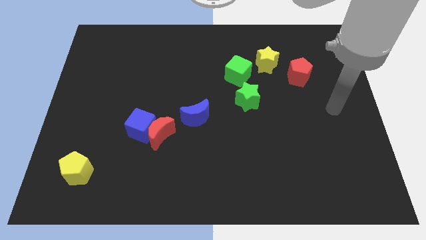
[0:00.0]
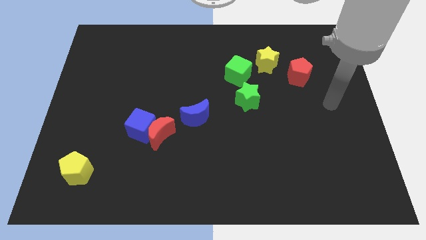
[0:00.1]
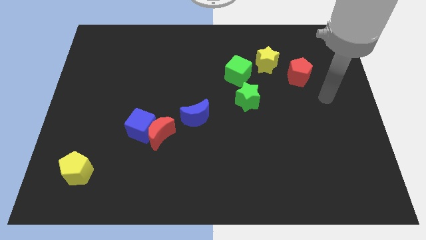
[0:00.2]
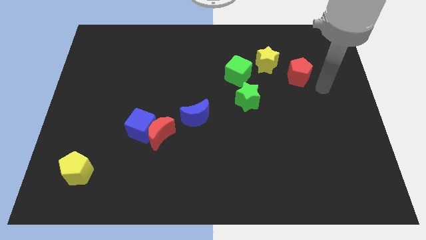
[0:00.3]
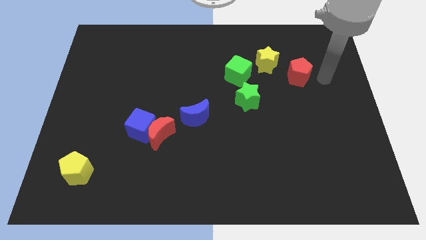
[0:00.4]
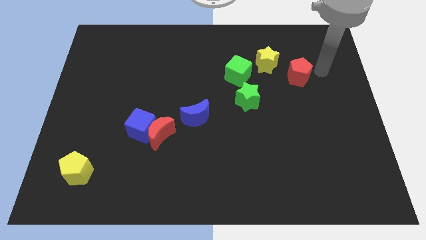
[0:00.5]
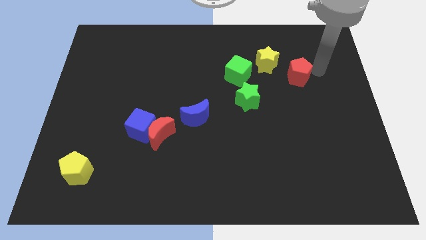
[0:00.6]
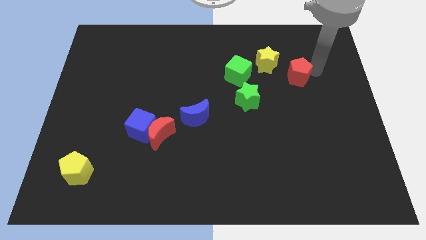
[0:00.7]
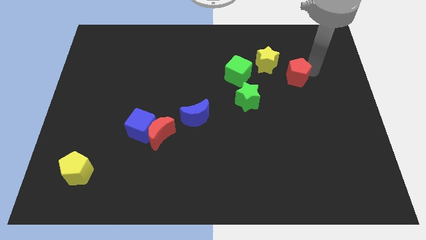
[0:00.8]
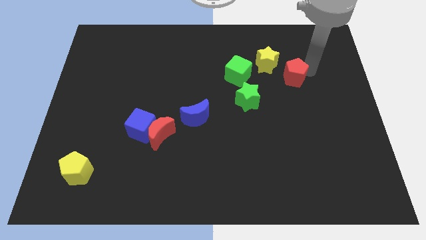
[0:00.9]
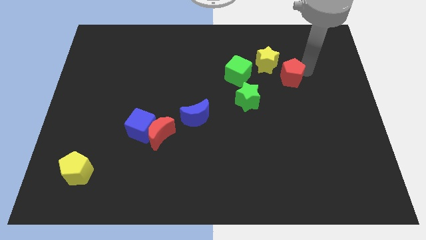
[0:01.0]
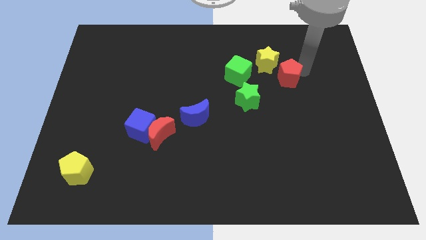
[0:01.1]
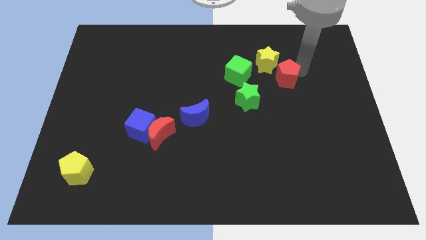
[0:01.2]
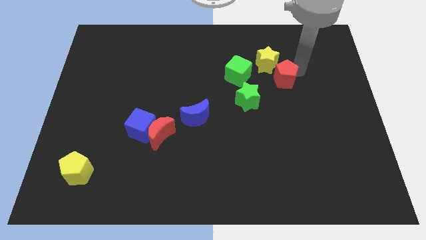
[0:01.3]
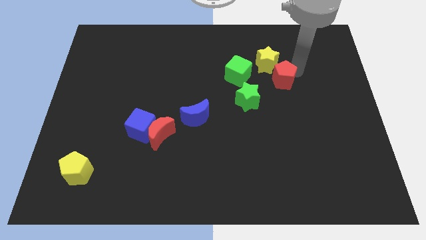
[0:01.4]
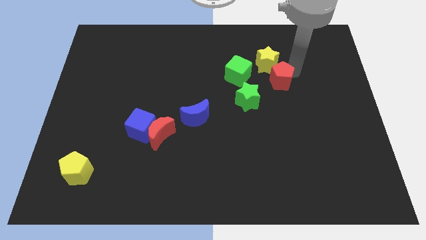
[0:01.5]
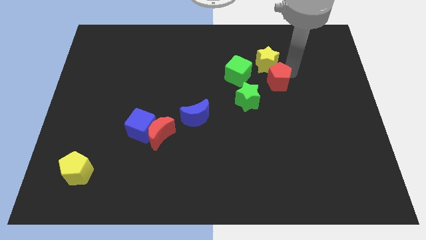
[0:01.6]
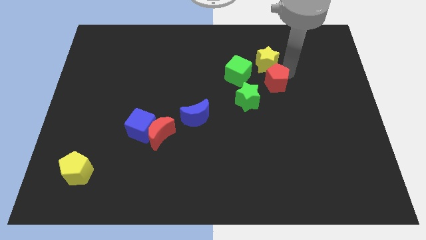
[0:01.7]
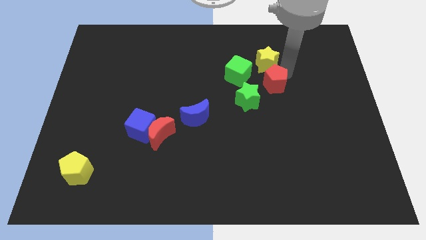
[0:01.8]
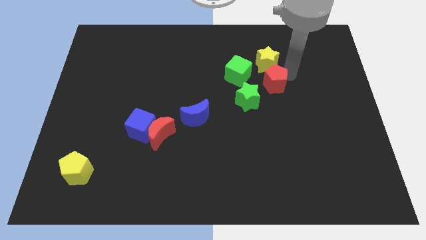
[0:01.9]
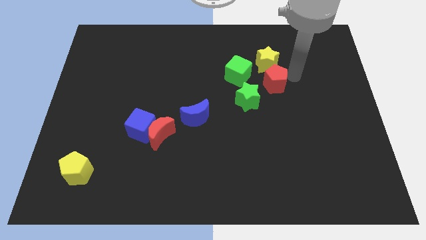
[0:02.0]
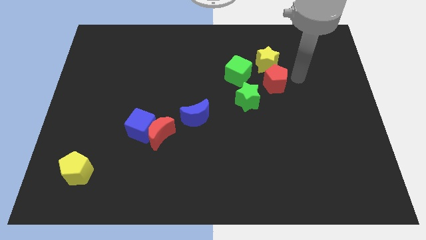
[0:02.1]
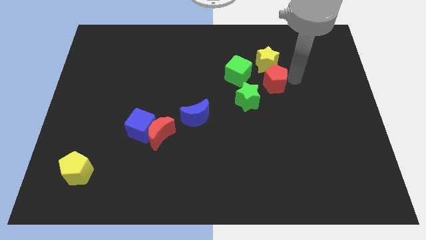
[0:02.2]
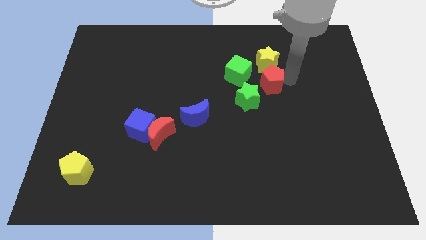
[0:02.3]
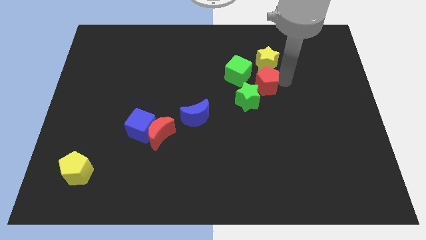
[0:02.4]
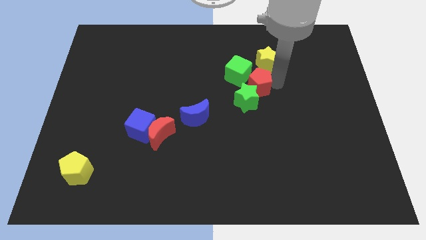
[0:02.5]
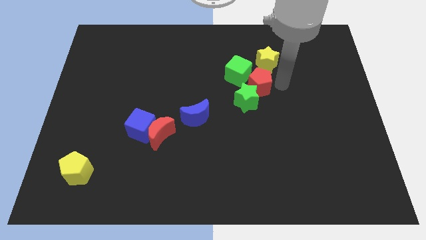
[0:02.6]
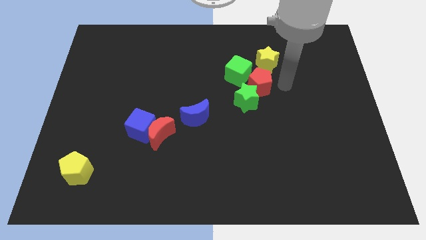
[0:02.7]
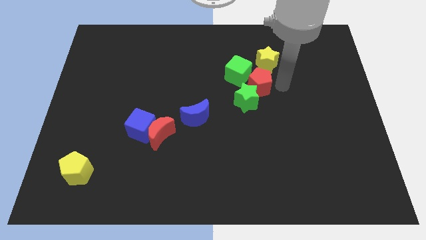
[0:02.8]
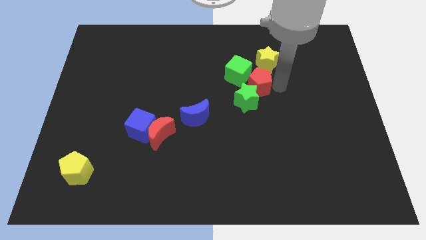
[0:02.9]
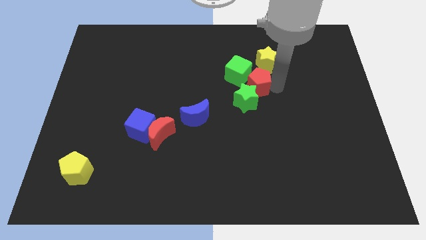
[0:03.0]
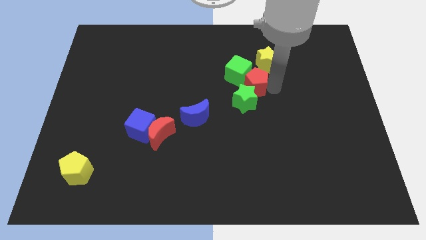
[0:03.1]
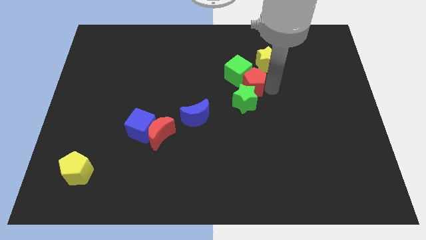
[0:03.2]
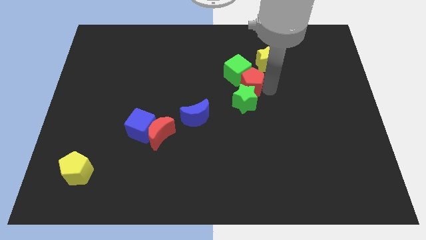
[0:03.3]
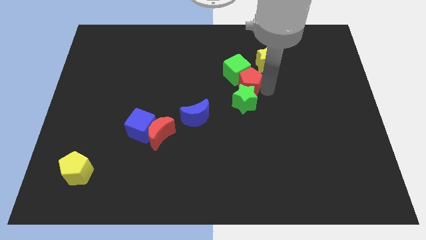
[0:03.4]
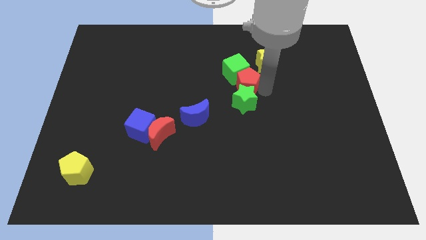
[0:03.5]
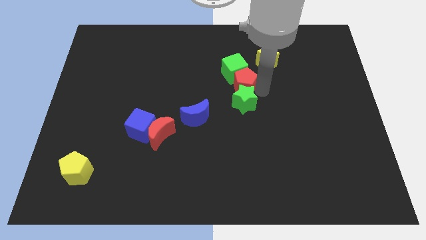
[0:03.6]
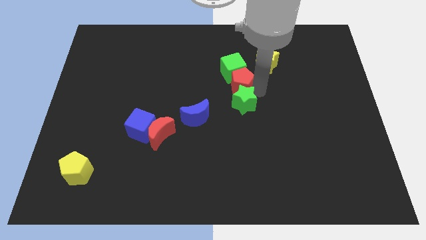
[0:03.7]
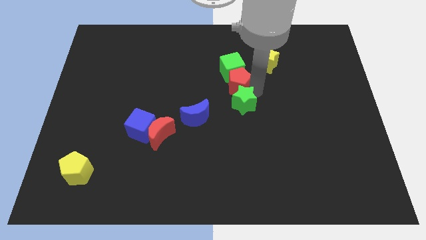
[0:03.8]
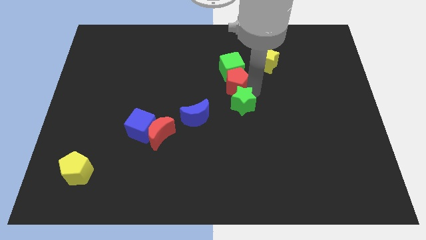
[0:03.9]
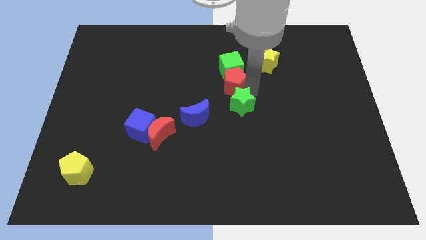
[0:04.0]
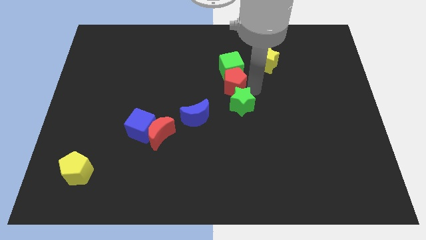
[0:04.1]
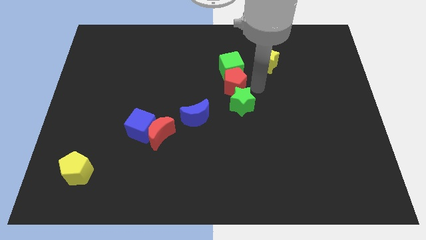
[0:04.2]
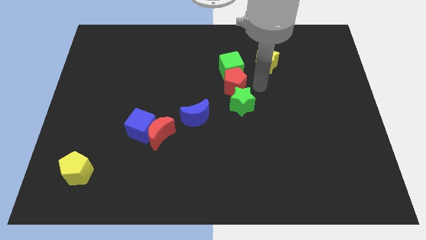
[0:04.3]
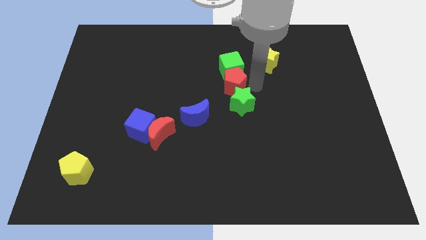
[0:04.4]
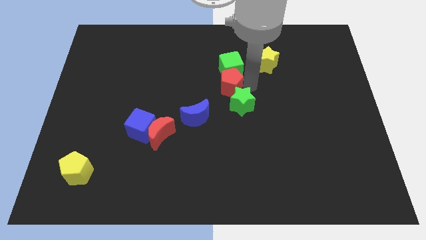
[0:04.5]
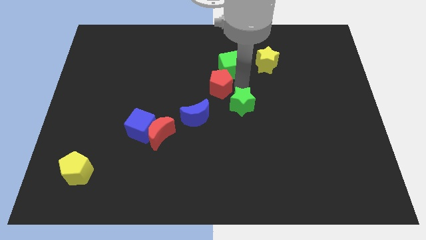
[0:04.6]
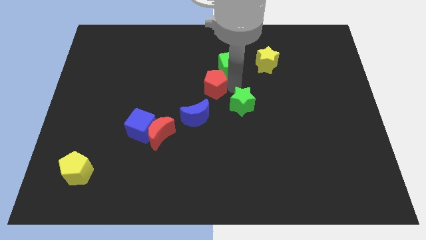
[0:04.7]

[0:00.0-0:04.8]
slide the red pentagon left

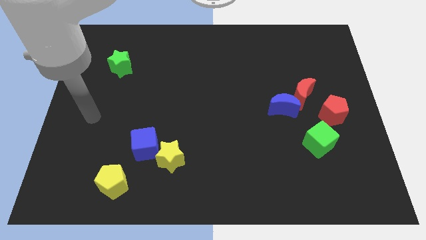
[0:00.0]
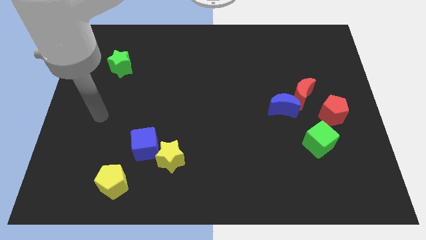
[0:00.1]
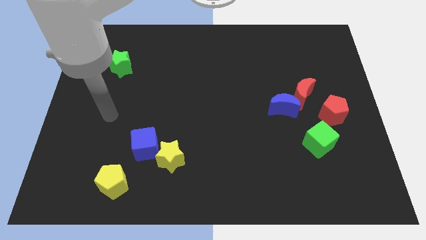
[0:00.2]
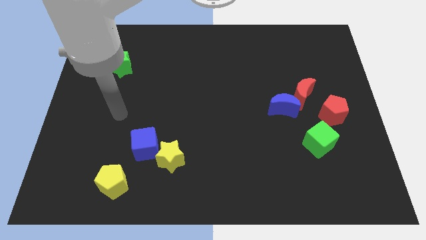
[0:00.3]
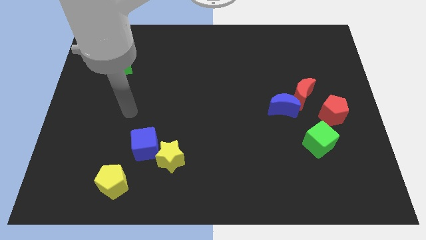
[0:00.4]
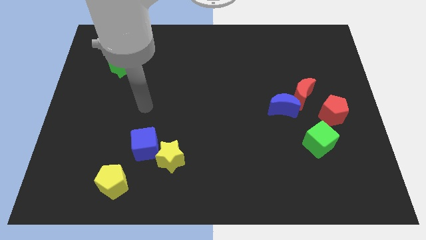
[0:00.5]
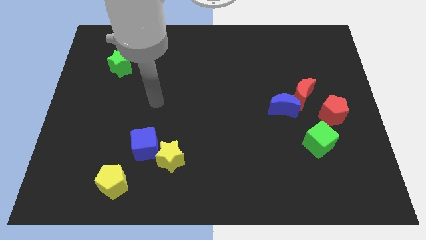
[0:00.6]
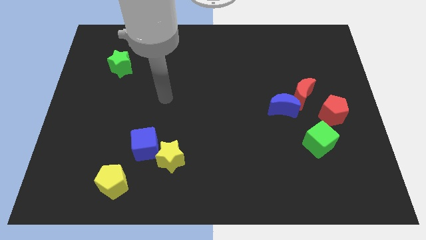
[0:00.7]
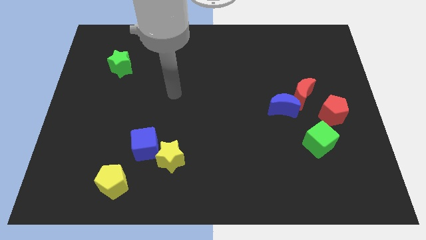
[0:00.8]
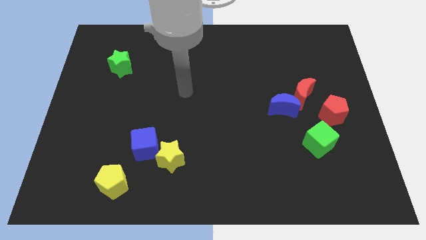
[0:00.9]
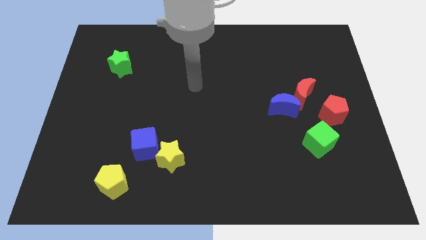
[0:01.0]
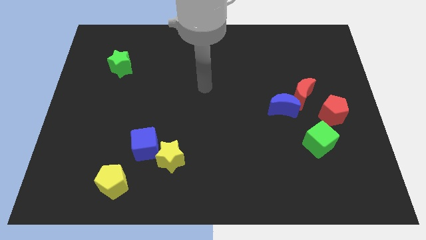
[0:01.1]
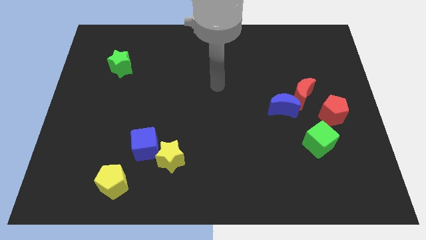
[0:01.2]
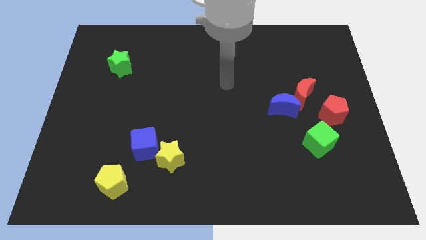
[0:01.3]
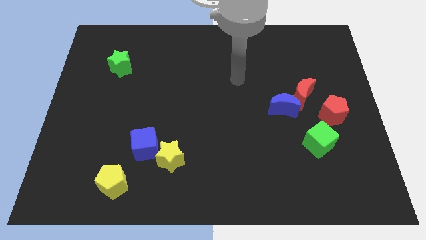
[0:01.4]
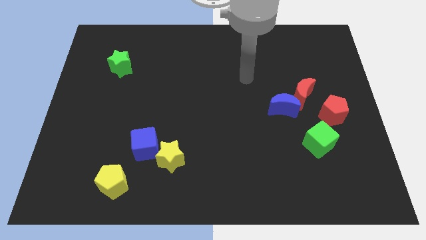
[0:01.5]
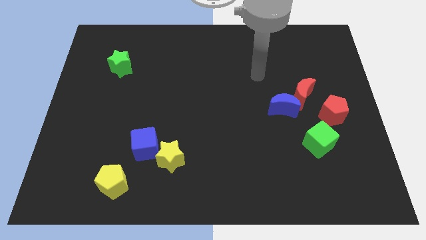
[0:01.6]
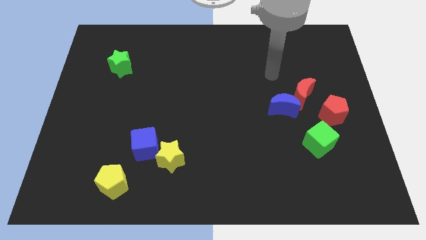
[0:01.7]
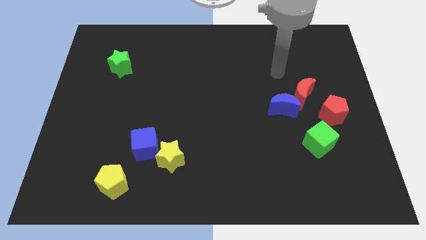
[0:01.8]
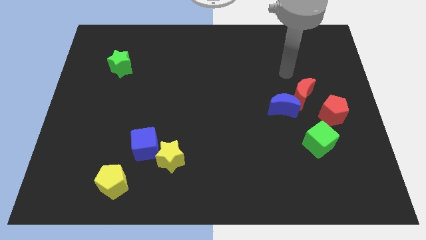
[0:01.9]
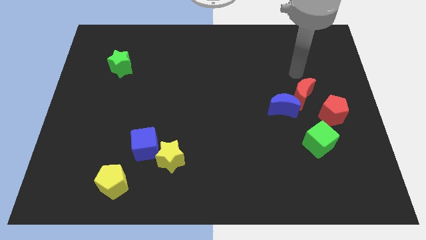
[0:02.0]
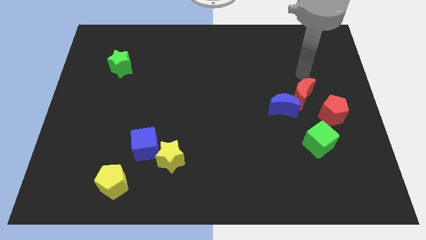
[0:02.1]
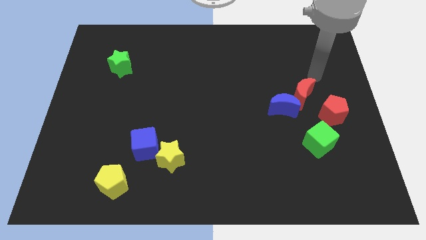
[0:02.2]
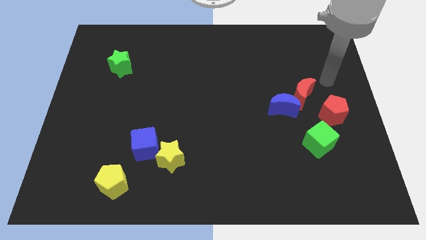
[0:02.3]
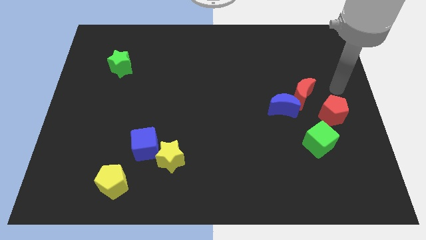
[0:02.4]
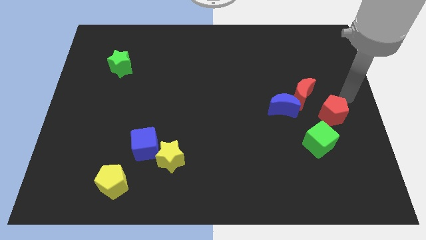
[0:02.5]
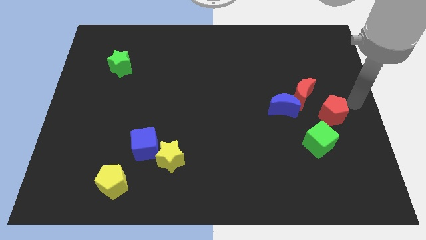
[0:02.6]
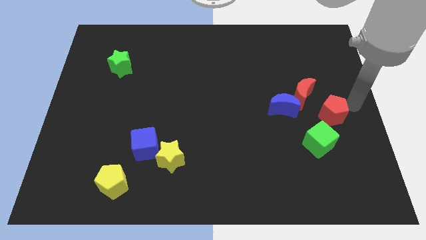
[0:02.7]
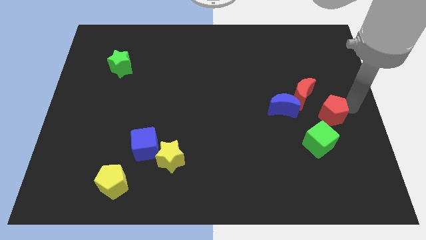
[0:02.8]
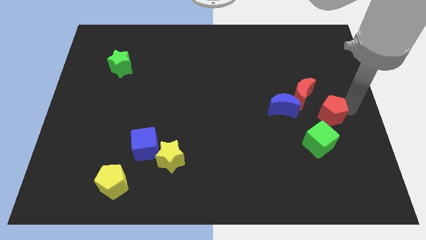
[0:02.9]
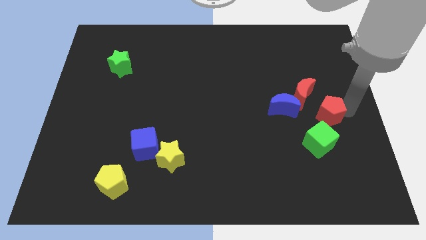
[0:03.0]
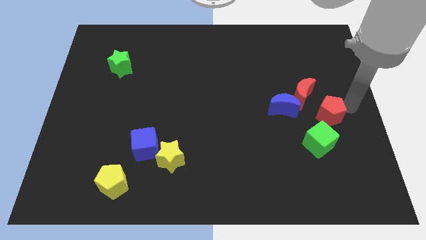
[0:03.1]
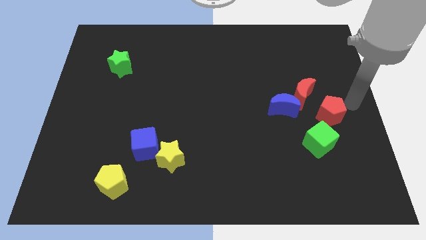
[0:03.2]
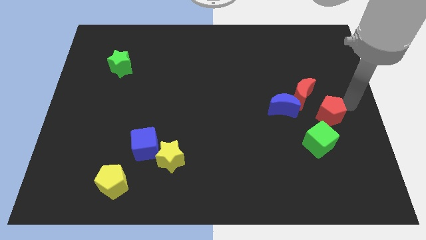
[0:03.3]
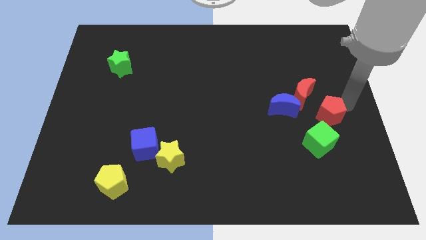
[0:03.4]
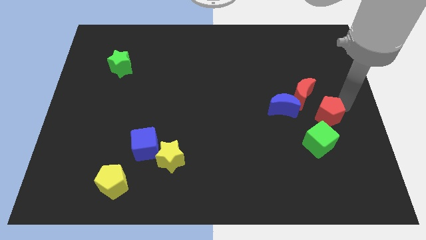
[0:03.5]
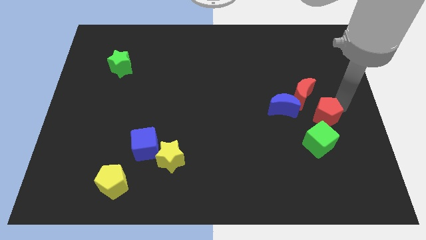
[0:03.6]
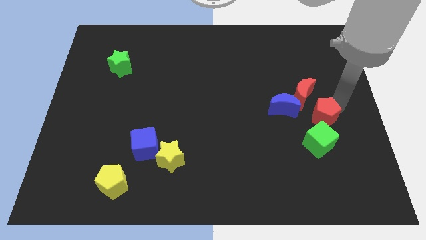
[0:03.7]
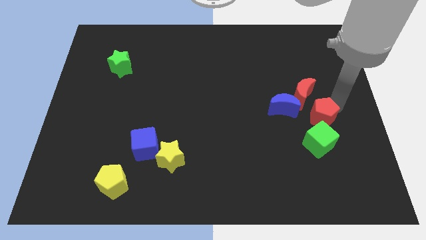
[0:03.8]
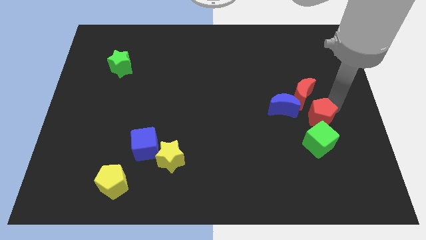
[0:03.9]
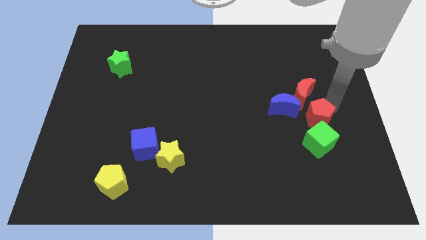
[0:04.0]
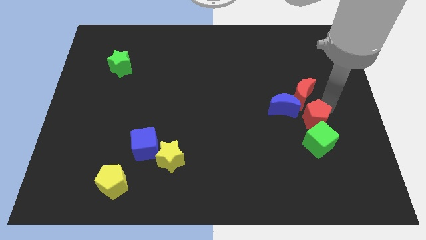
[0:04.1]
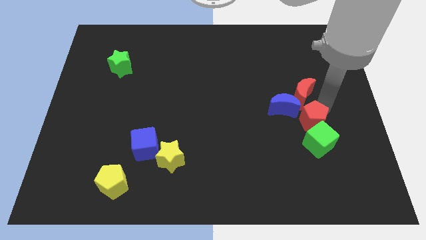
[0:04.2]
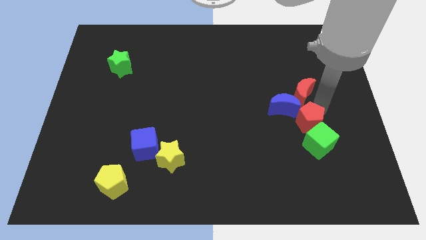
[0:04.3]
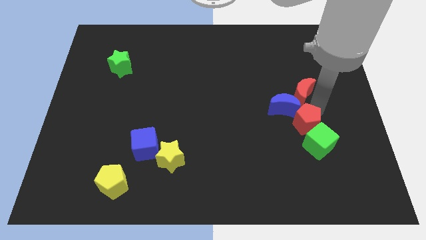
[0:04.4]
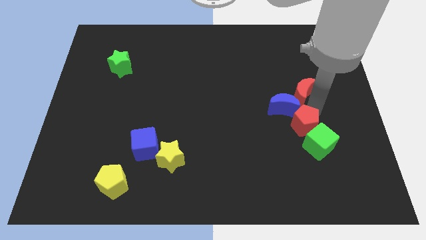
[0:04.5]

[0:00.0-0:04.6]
slightly slide the red pentagon down and then to the left
